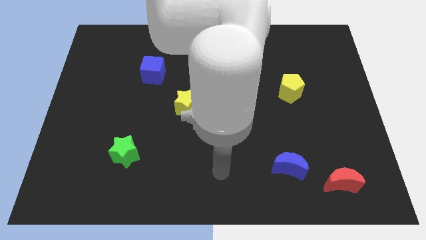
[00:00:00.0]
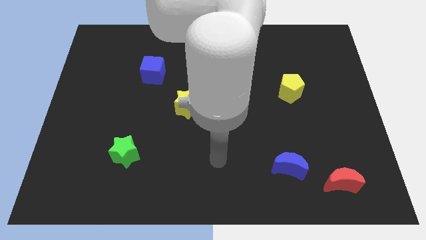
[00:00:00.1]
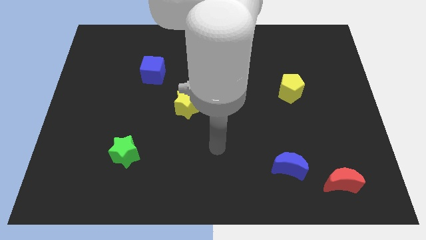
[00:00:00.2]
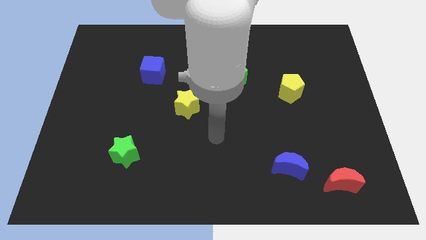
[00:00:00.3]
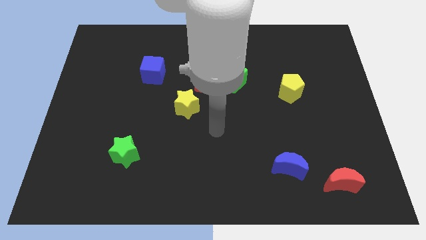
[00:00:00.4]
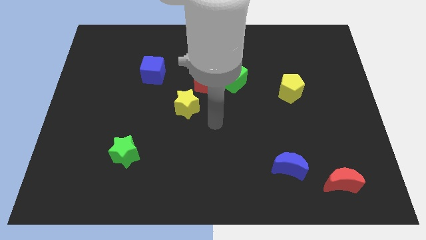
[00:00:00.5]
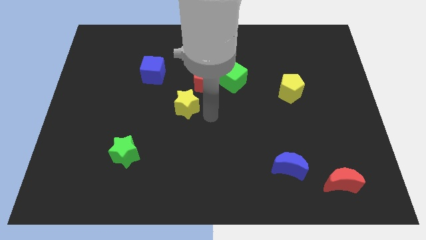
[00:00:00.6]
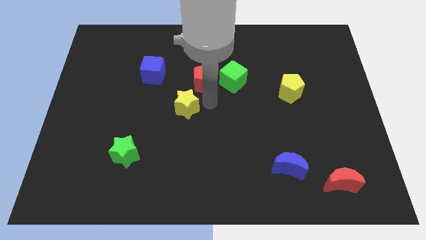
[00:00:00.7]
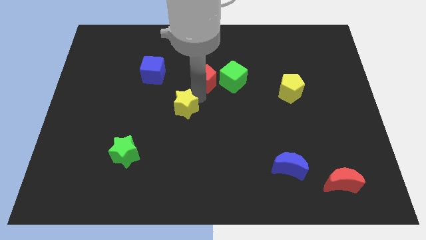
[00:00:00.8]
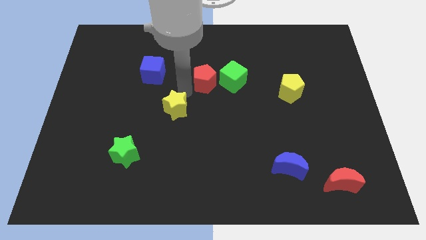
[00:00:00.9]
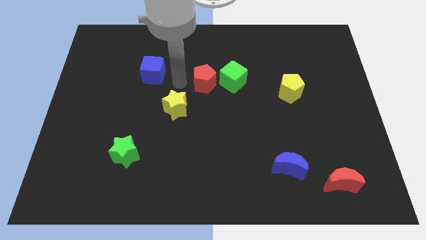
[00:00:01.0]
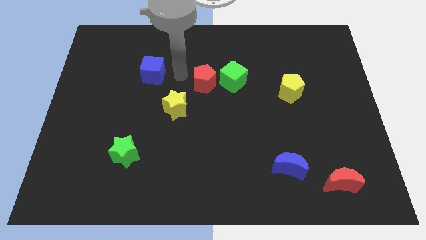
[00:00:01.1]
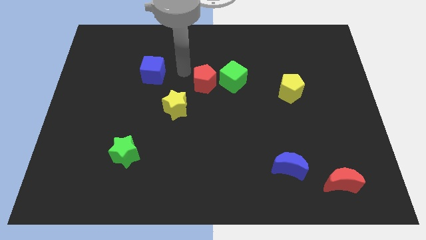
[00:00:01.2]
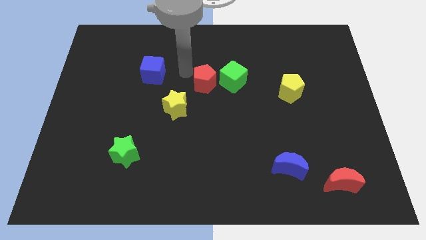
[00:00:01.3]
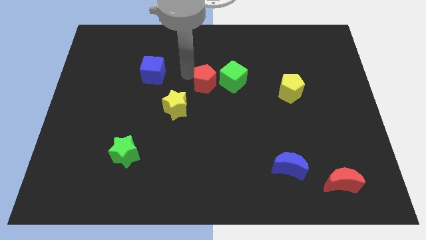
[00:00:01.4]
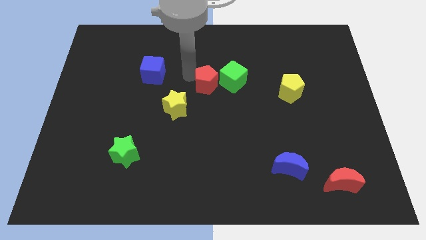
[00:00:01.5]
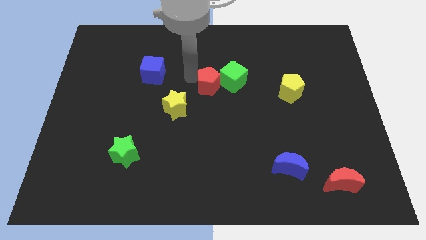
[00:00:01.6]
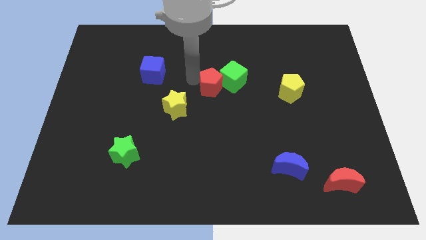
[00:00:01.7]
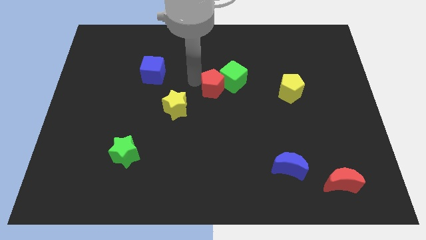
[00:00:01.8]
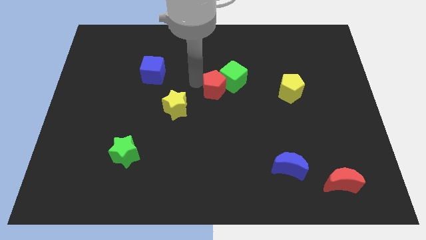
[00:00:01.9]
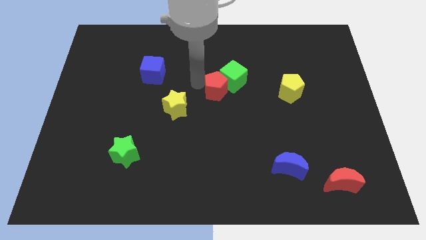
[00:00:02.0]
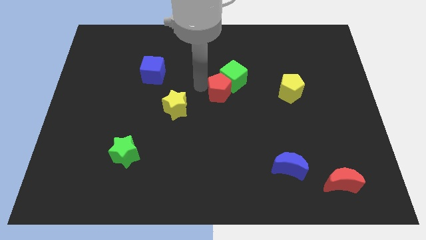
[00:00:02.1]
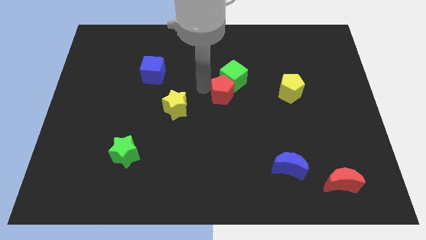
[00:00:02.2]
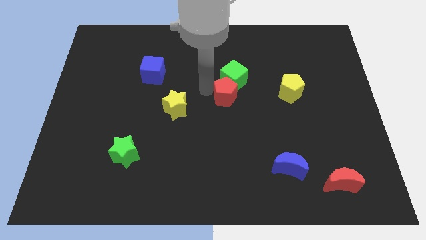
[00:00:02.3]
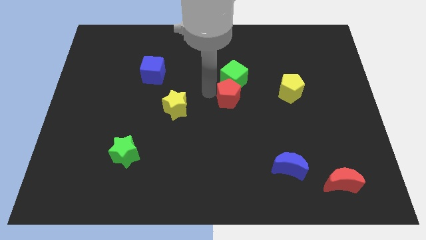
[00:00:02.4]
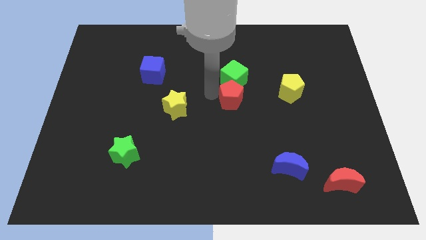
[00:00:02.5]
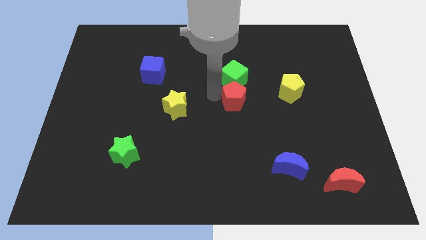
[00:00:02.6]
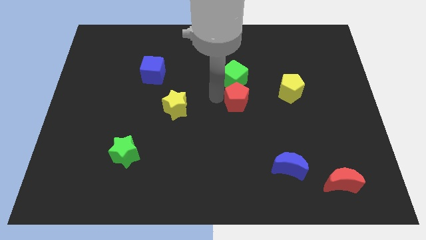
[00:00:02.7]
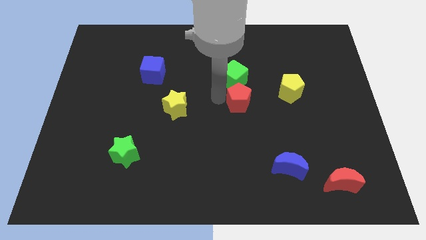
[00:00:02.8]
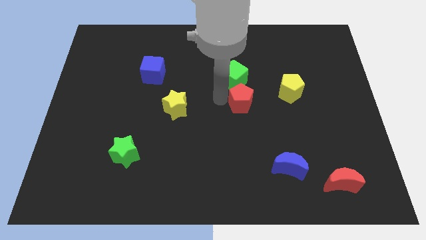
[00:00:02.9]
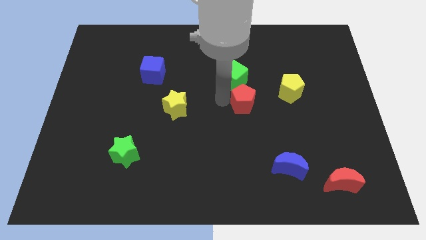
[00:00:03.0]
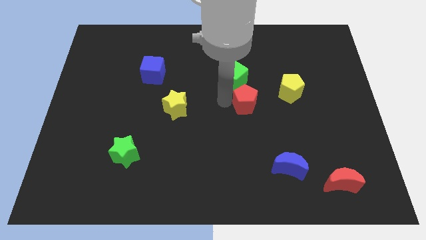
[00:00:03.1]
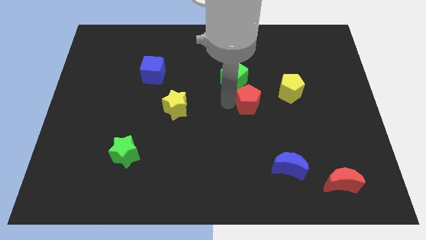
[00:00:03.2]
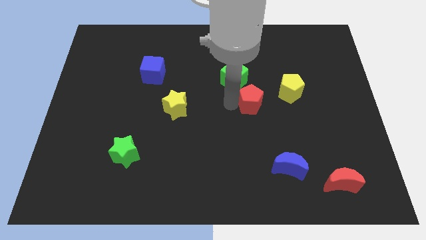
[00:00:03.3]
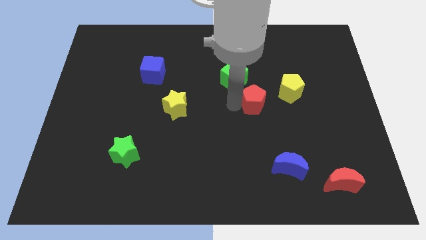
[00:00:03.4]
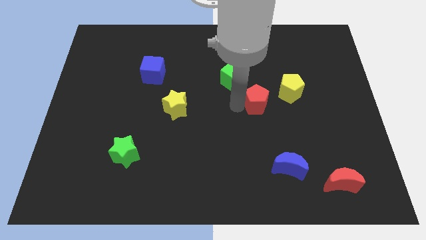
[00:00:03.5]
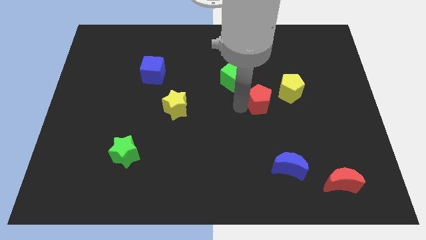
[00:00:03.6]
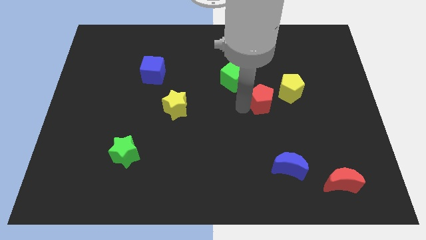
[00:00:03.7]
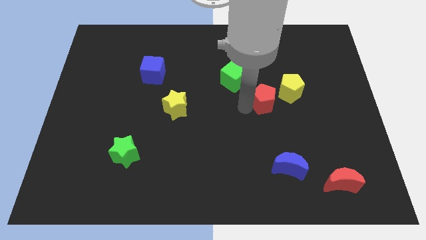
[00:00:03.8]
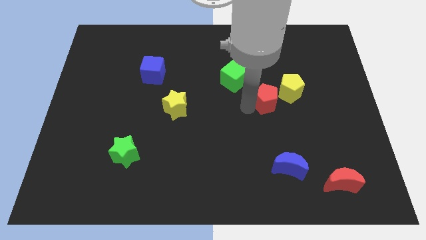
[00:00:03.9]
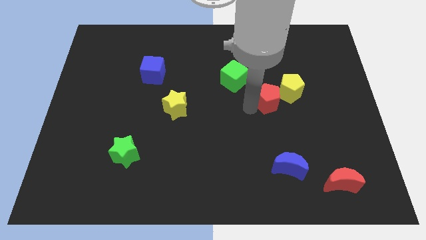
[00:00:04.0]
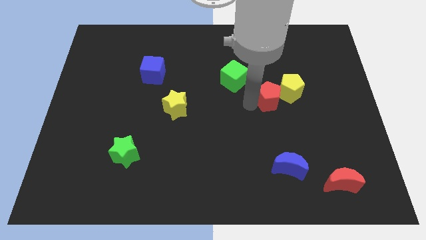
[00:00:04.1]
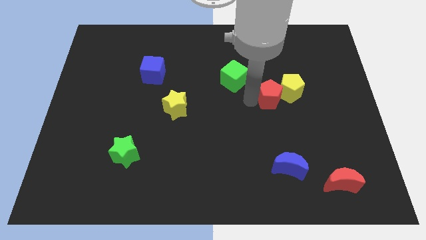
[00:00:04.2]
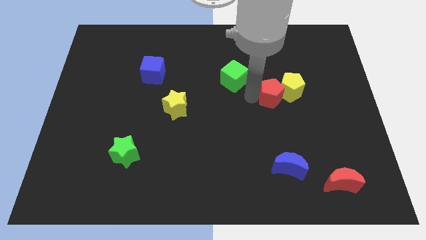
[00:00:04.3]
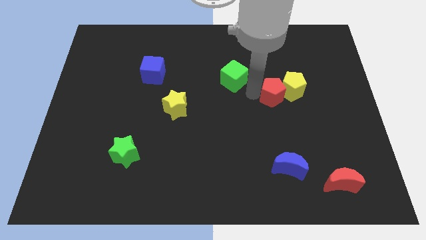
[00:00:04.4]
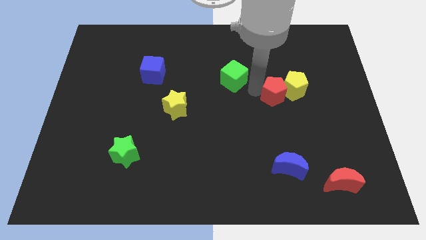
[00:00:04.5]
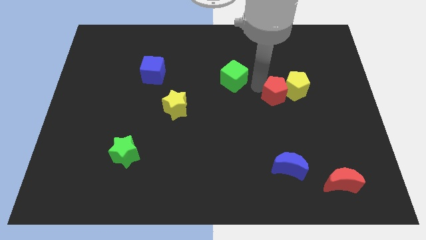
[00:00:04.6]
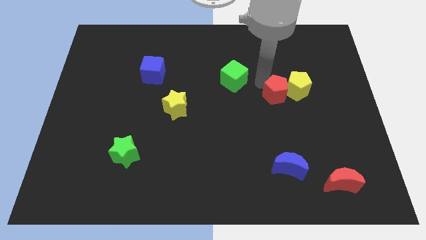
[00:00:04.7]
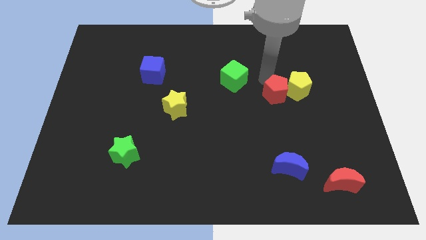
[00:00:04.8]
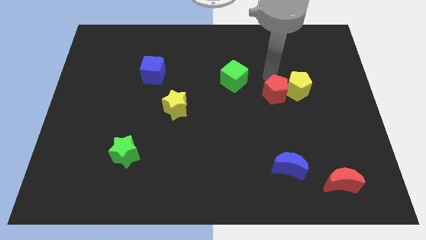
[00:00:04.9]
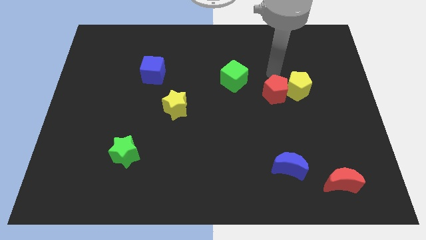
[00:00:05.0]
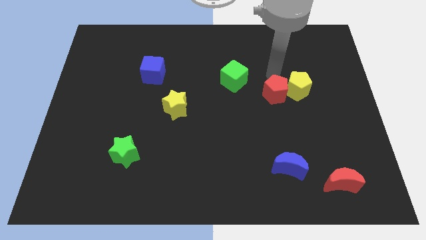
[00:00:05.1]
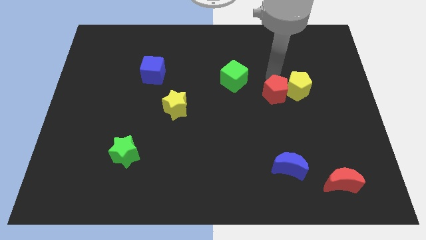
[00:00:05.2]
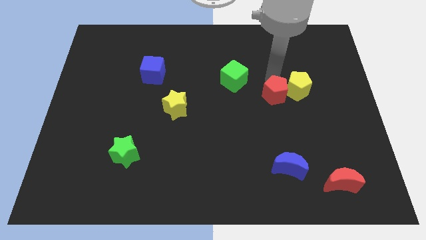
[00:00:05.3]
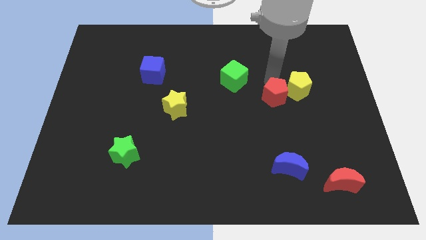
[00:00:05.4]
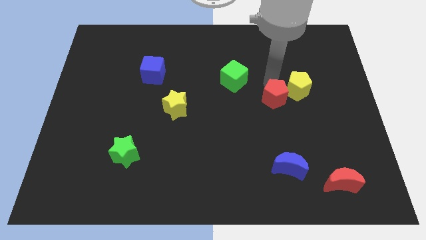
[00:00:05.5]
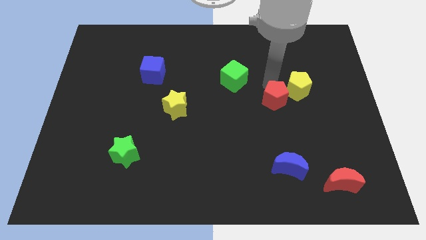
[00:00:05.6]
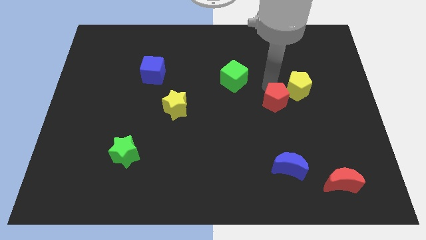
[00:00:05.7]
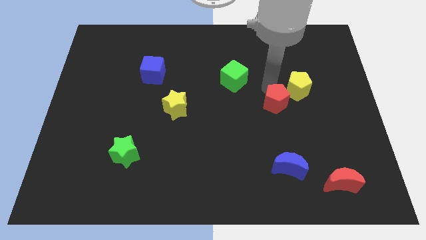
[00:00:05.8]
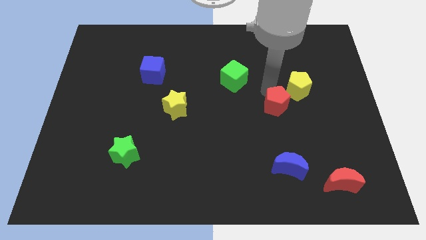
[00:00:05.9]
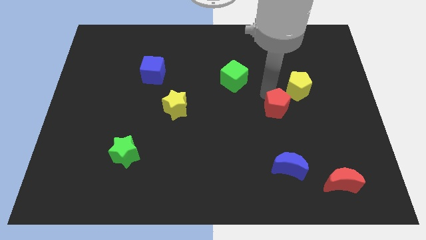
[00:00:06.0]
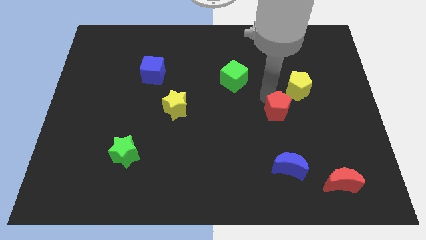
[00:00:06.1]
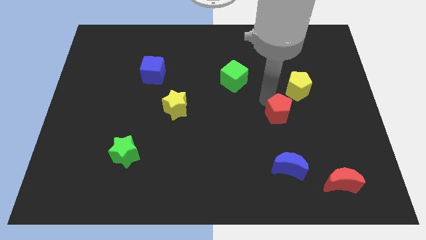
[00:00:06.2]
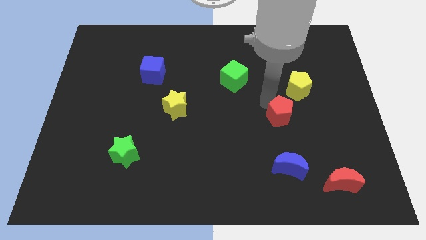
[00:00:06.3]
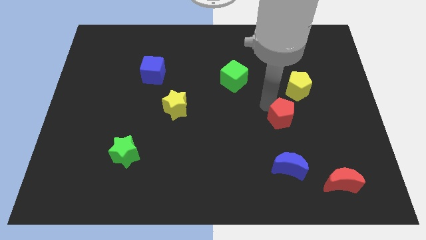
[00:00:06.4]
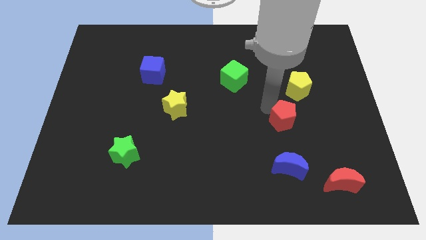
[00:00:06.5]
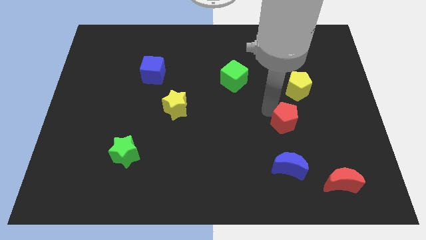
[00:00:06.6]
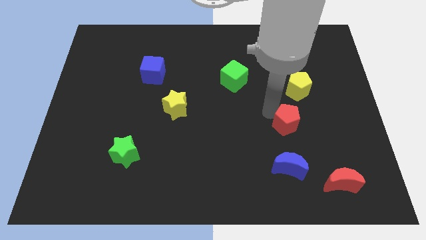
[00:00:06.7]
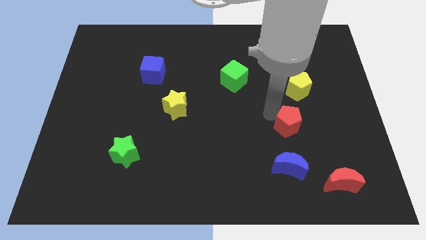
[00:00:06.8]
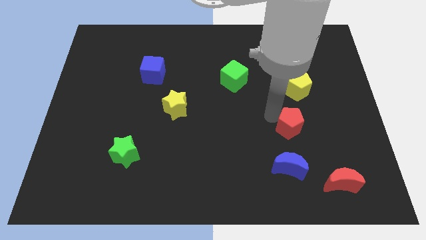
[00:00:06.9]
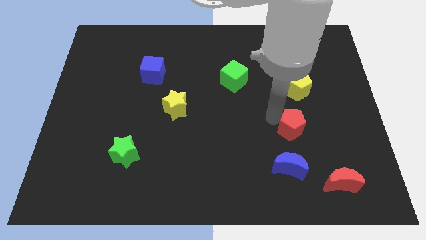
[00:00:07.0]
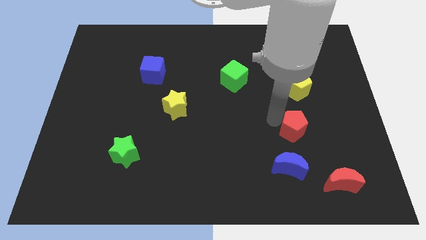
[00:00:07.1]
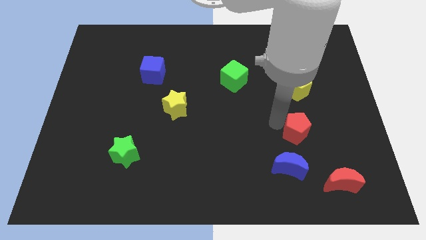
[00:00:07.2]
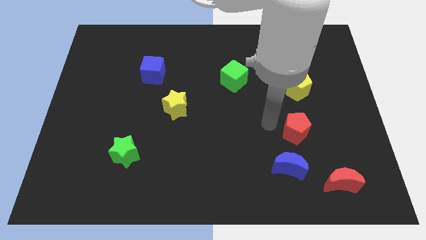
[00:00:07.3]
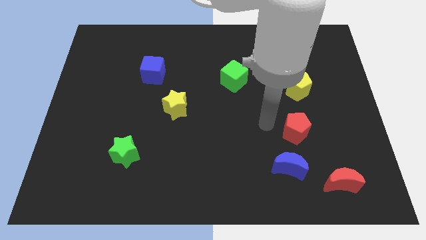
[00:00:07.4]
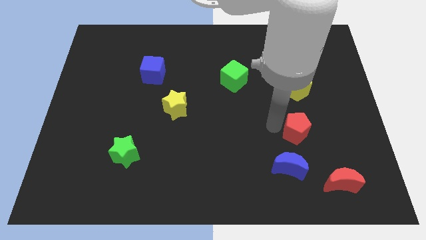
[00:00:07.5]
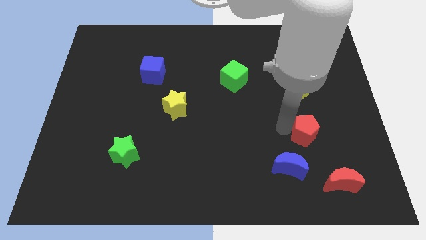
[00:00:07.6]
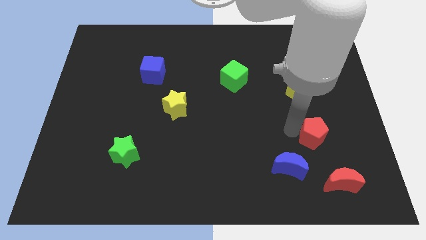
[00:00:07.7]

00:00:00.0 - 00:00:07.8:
slide the red pentagon to the top side of the red moon
